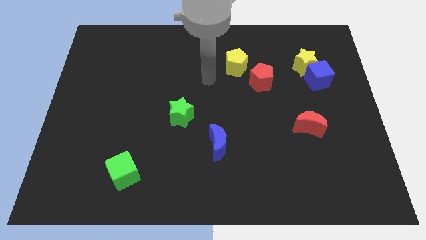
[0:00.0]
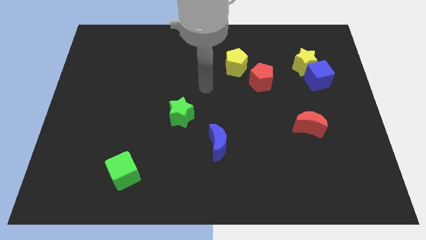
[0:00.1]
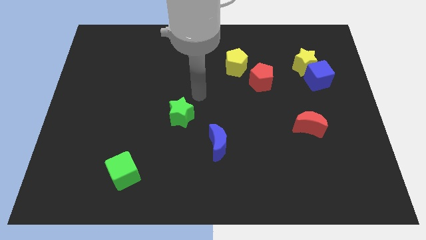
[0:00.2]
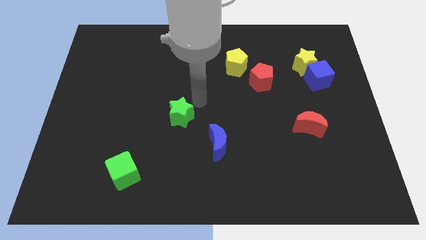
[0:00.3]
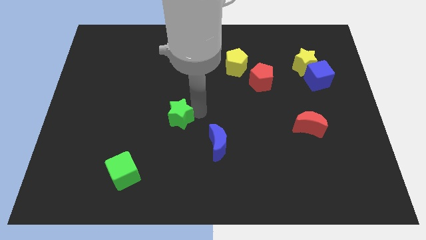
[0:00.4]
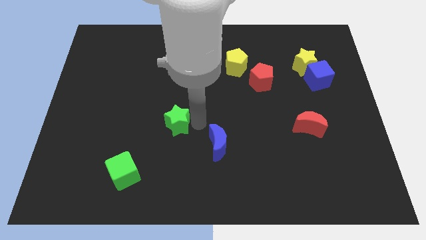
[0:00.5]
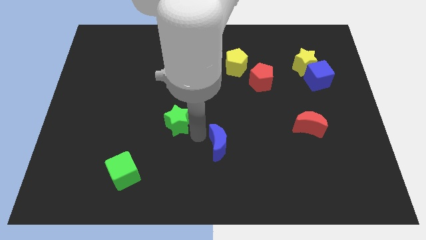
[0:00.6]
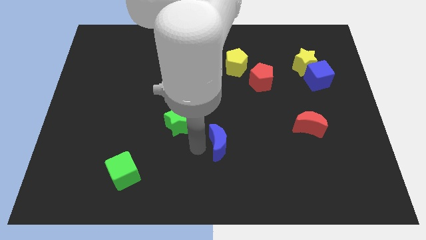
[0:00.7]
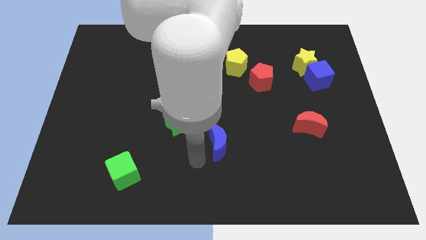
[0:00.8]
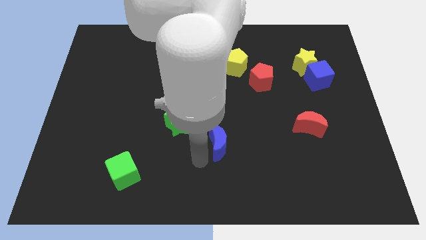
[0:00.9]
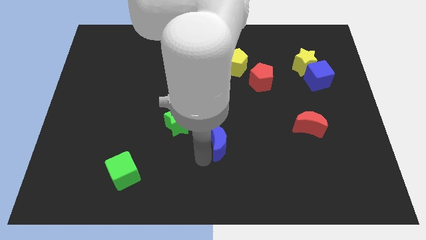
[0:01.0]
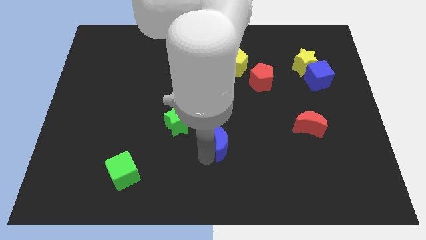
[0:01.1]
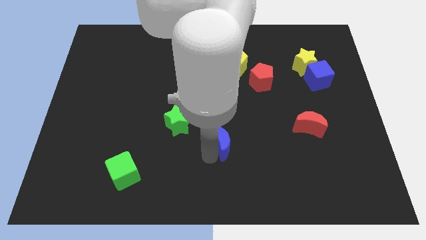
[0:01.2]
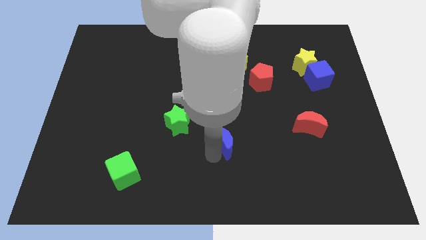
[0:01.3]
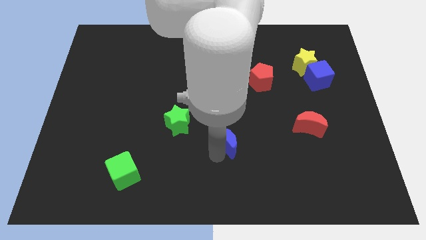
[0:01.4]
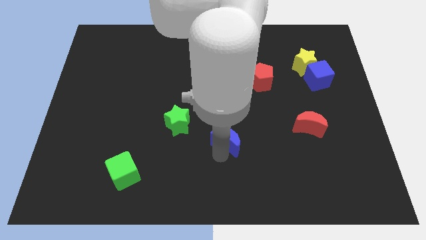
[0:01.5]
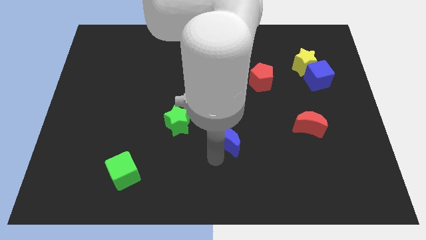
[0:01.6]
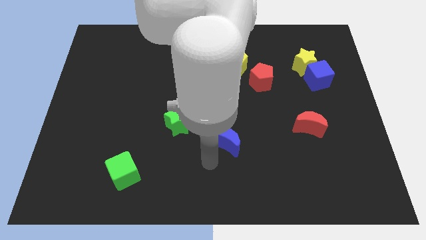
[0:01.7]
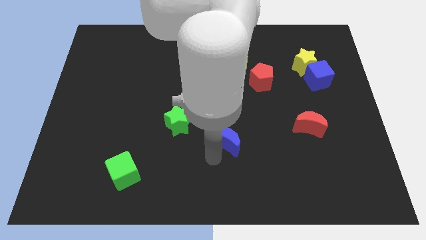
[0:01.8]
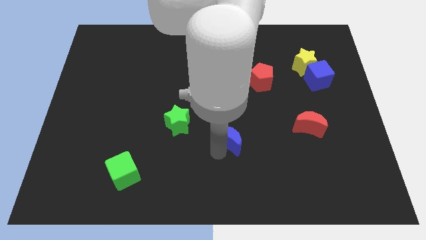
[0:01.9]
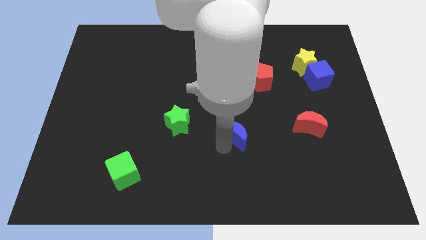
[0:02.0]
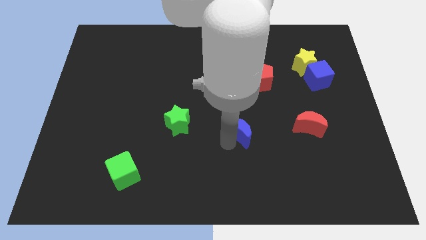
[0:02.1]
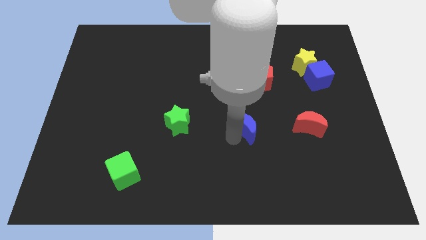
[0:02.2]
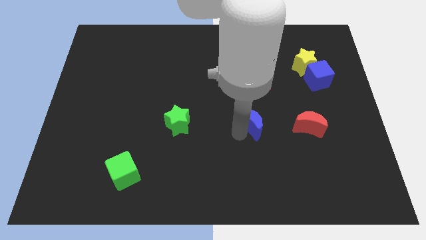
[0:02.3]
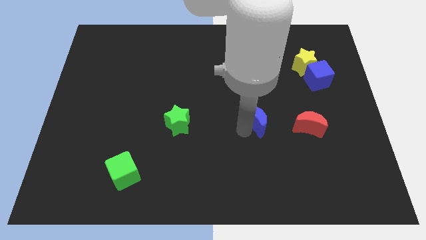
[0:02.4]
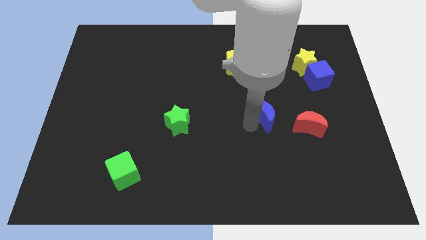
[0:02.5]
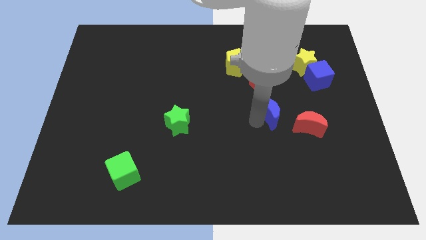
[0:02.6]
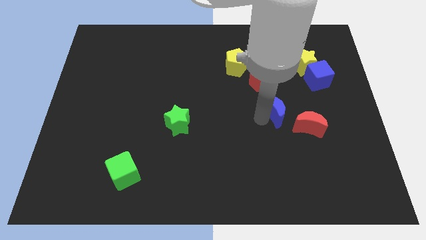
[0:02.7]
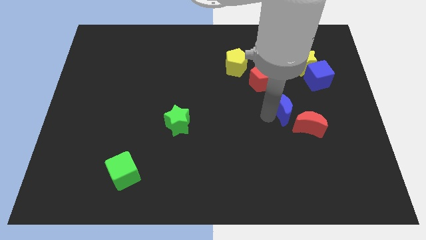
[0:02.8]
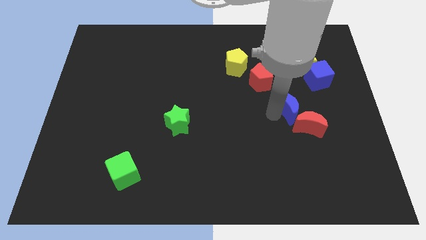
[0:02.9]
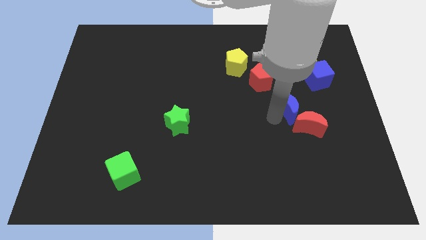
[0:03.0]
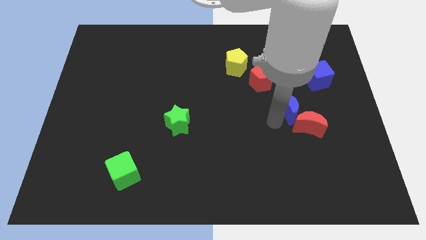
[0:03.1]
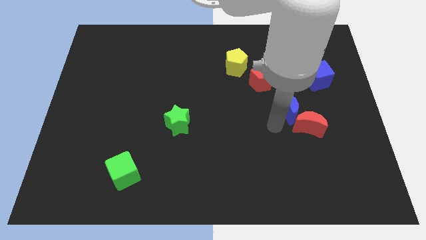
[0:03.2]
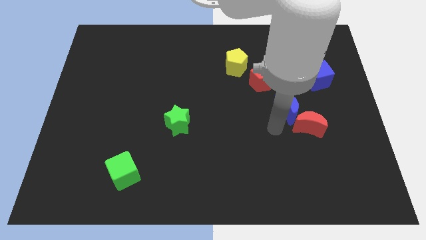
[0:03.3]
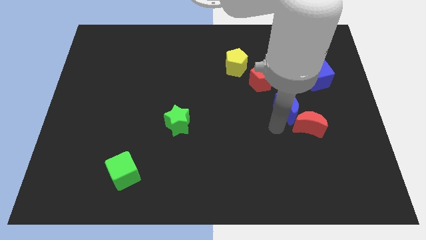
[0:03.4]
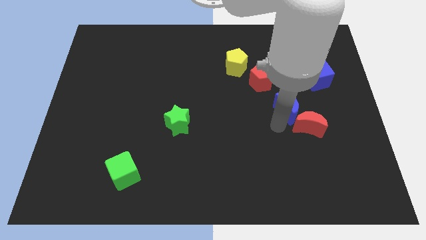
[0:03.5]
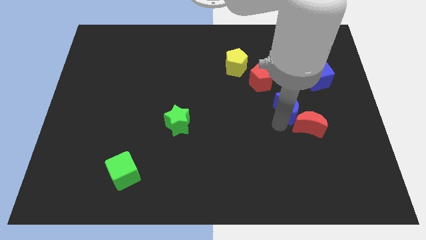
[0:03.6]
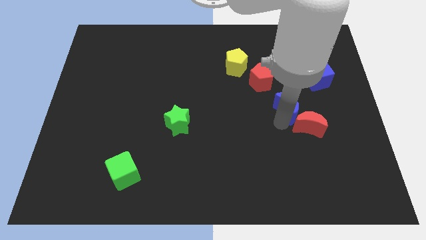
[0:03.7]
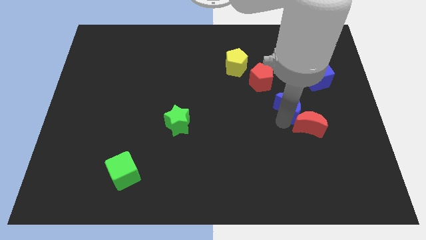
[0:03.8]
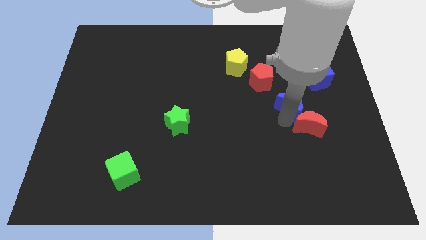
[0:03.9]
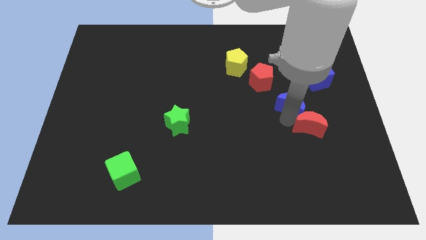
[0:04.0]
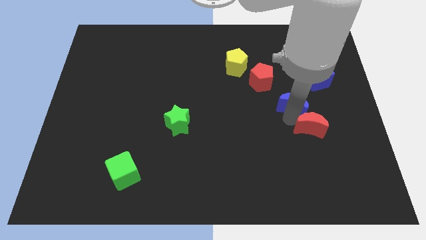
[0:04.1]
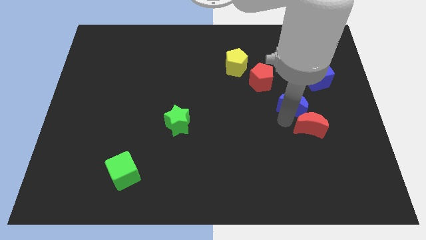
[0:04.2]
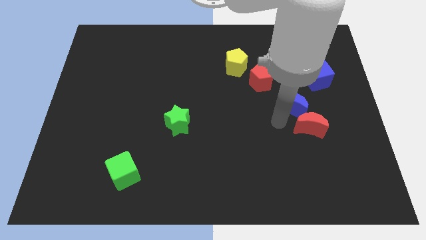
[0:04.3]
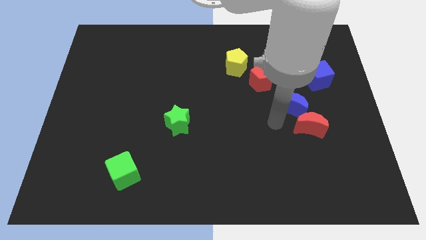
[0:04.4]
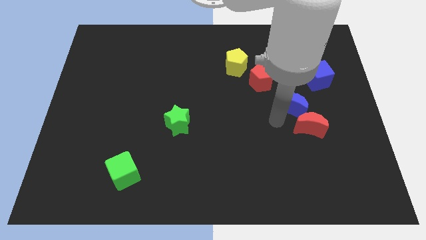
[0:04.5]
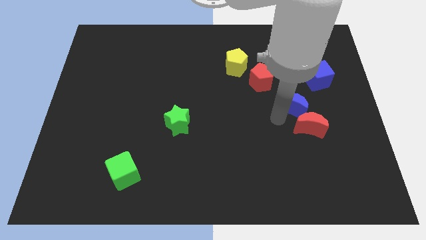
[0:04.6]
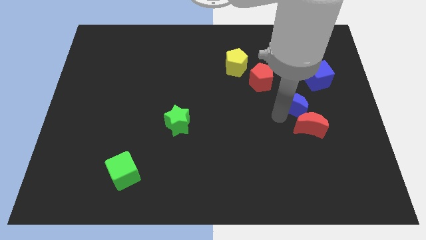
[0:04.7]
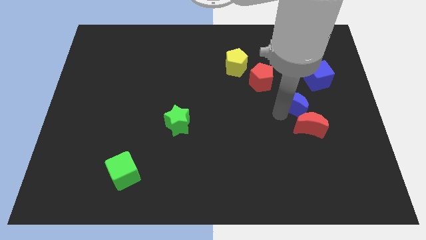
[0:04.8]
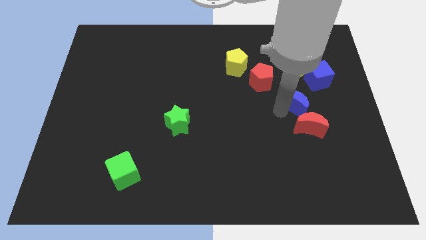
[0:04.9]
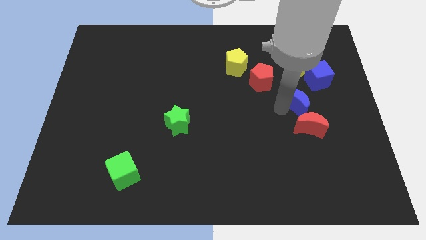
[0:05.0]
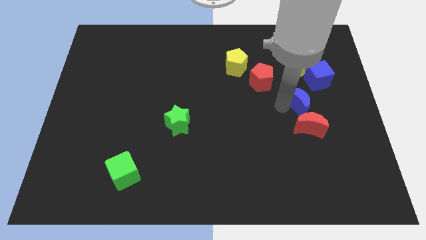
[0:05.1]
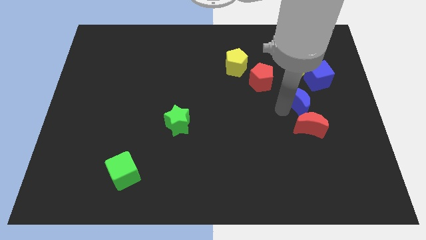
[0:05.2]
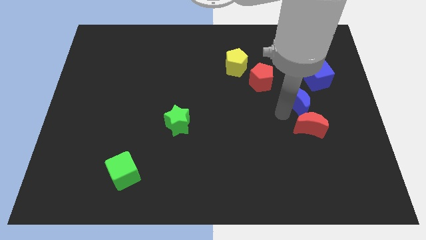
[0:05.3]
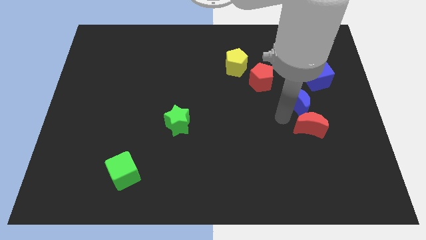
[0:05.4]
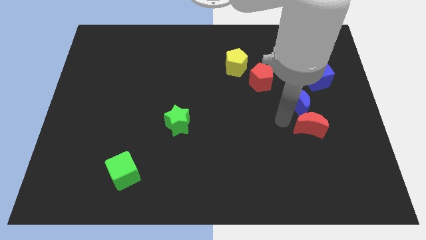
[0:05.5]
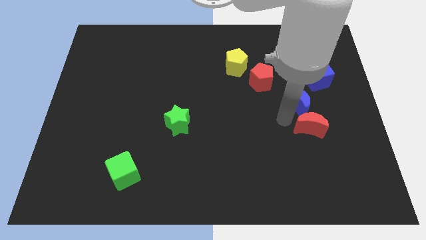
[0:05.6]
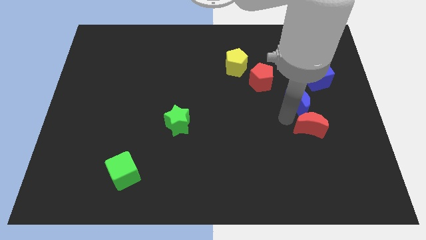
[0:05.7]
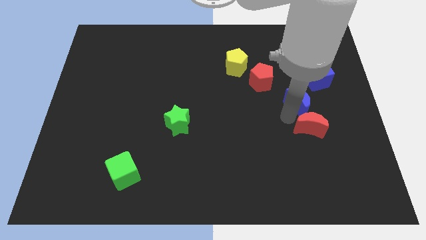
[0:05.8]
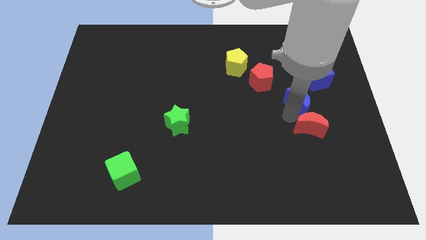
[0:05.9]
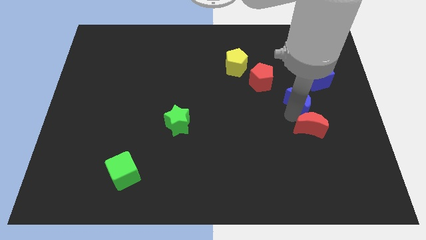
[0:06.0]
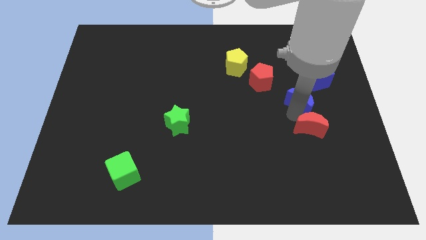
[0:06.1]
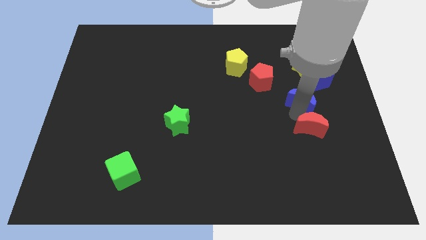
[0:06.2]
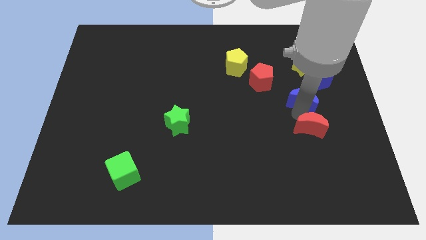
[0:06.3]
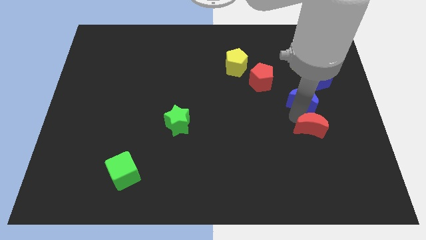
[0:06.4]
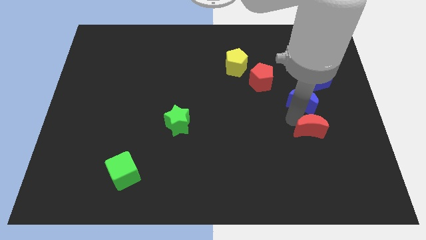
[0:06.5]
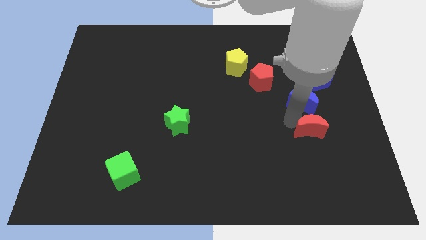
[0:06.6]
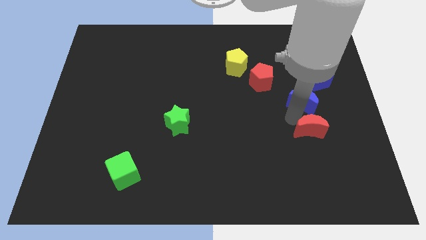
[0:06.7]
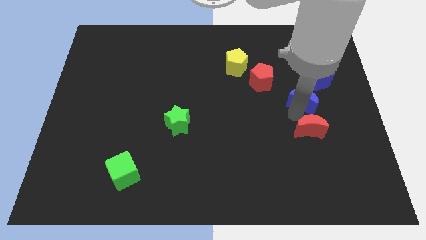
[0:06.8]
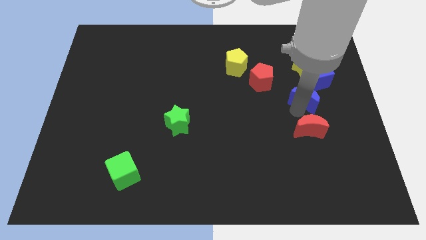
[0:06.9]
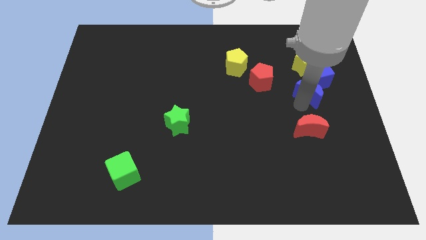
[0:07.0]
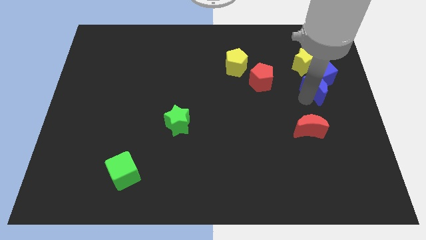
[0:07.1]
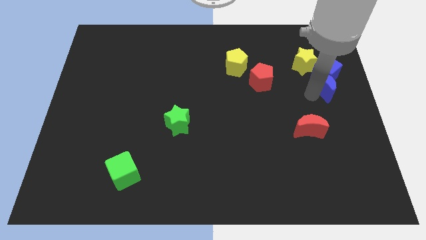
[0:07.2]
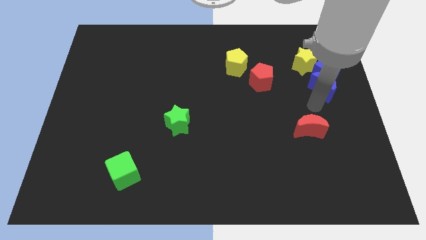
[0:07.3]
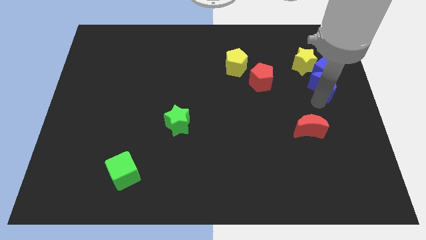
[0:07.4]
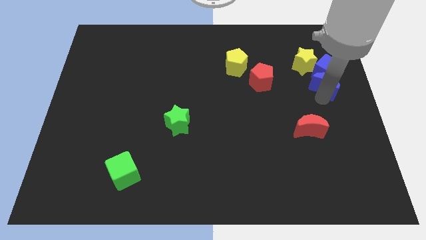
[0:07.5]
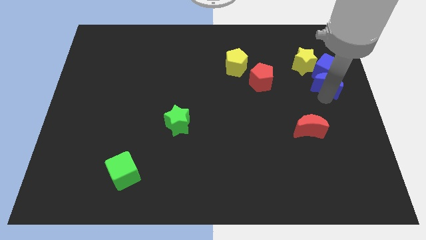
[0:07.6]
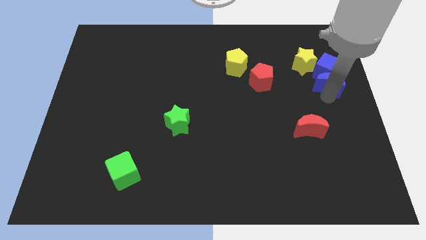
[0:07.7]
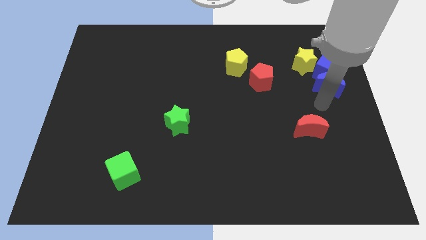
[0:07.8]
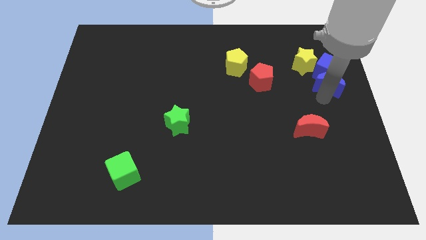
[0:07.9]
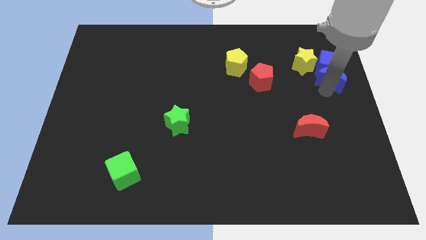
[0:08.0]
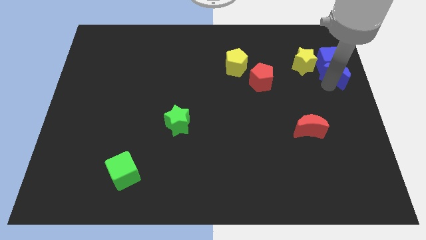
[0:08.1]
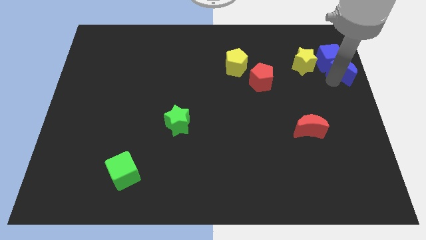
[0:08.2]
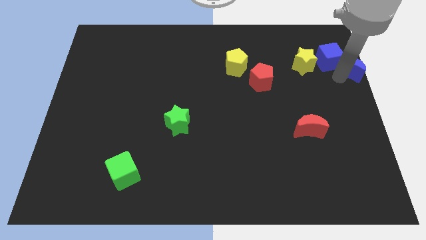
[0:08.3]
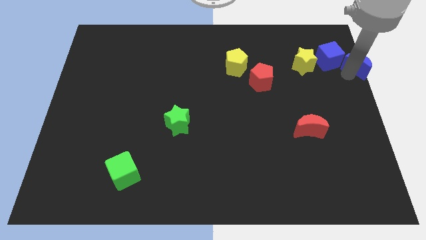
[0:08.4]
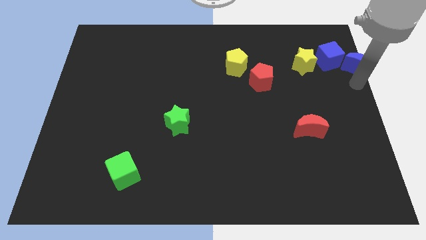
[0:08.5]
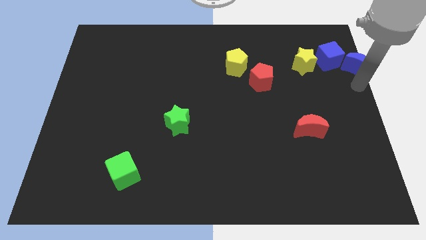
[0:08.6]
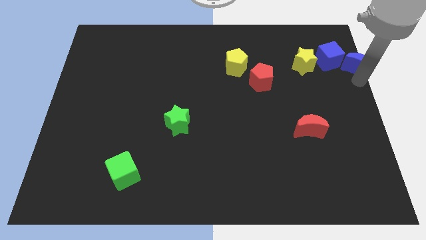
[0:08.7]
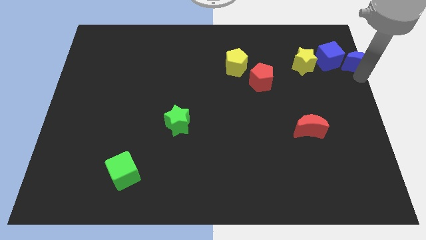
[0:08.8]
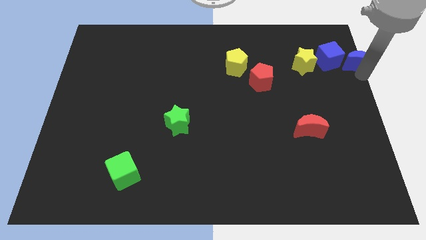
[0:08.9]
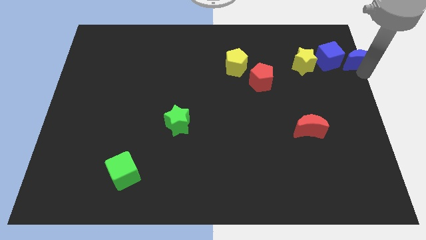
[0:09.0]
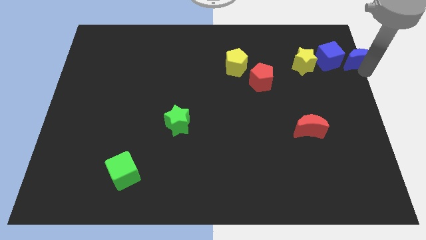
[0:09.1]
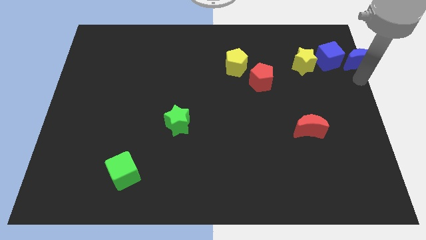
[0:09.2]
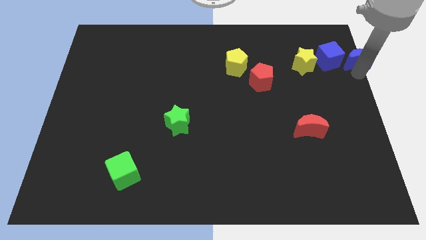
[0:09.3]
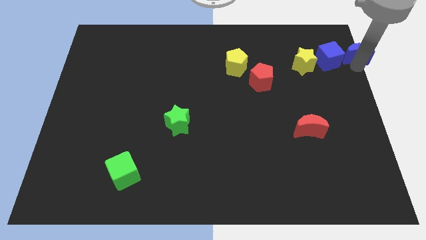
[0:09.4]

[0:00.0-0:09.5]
put the blue moon to the upper right corner
